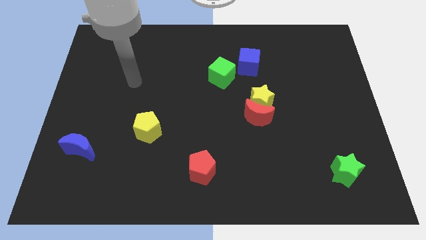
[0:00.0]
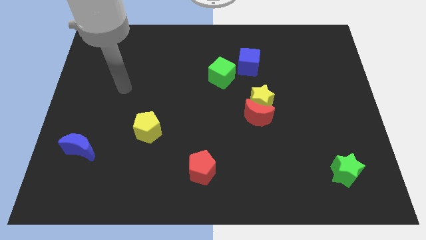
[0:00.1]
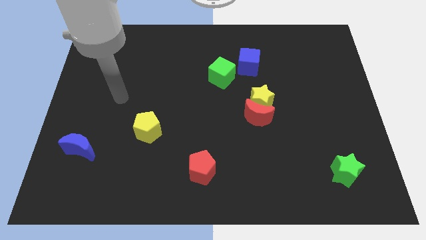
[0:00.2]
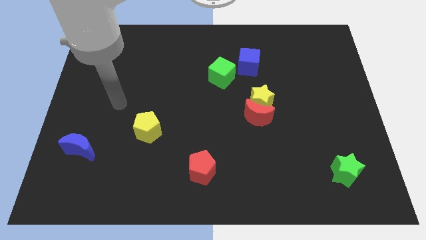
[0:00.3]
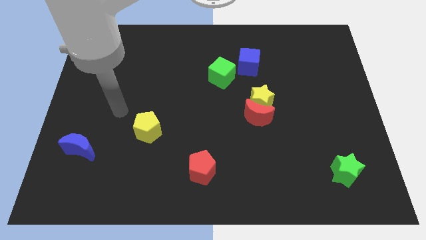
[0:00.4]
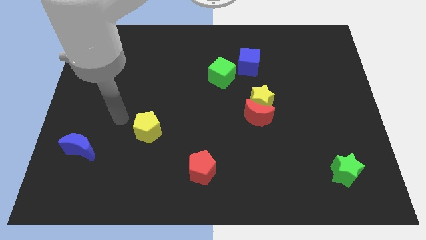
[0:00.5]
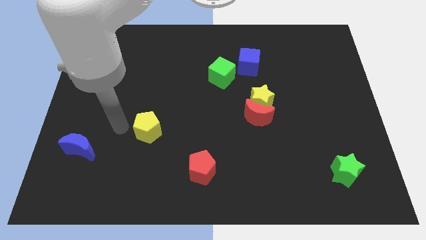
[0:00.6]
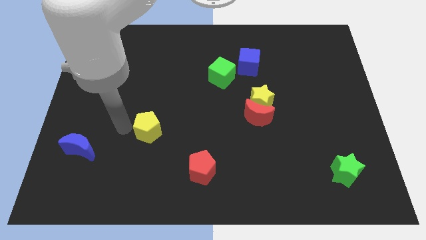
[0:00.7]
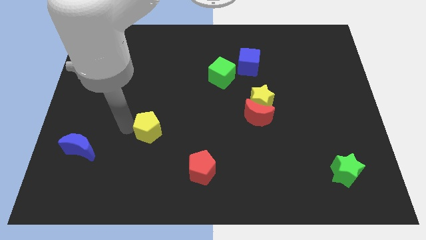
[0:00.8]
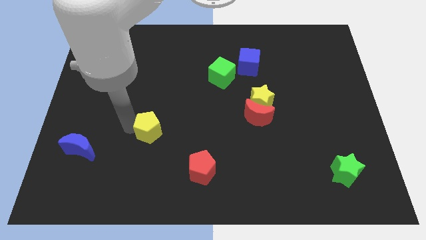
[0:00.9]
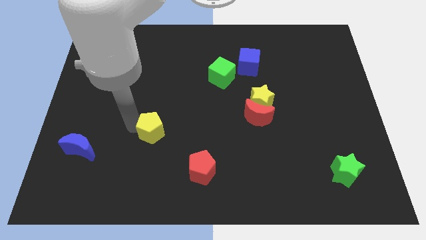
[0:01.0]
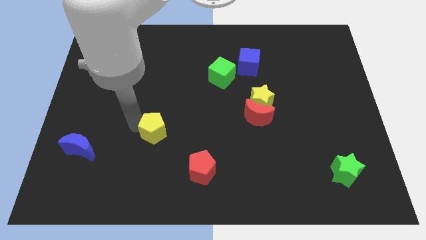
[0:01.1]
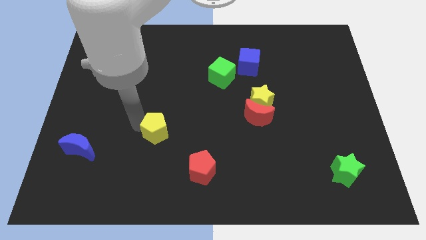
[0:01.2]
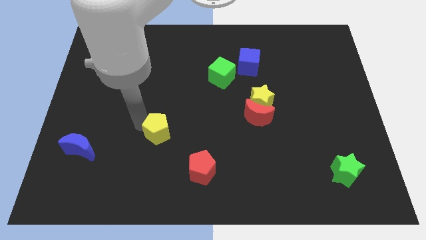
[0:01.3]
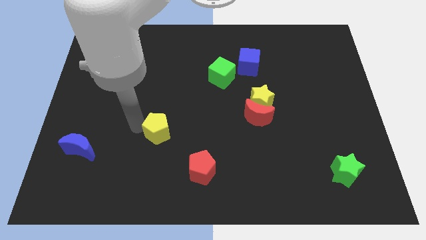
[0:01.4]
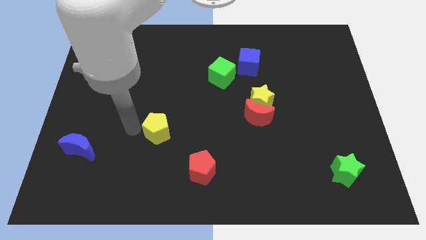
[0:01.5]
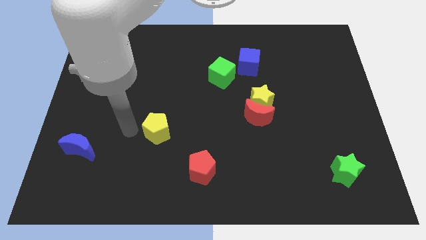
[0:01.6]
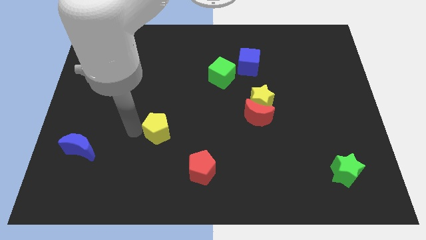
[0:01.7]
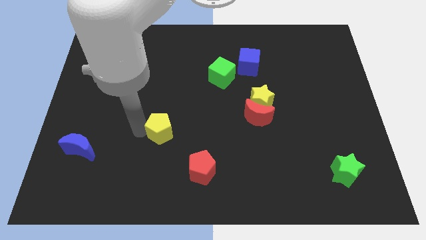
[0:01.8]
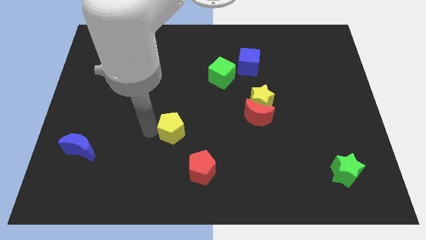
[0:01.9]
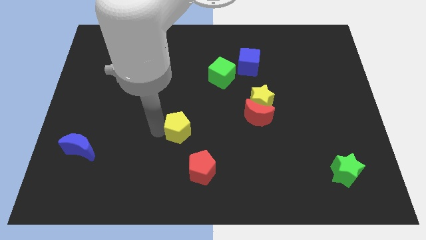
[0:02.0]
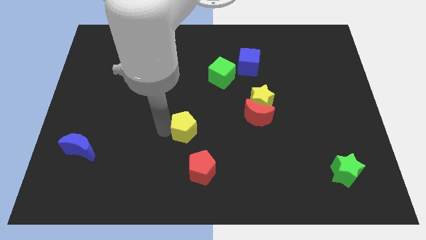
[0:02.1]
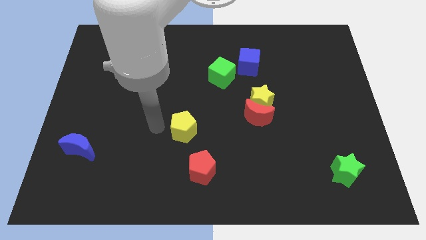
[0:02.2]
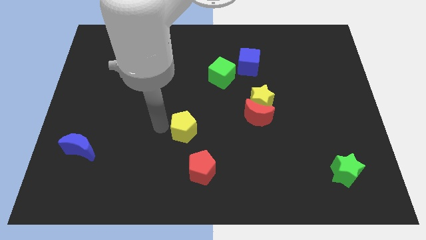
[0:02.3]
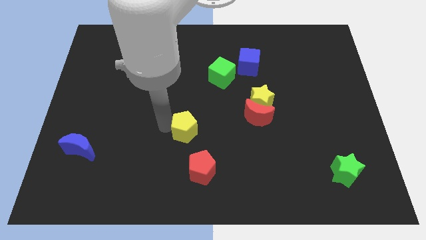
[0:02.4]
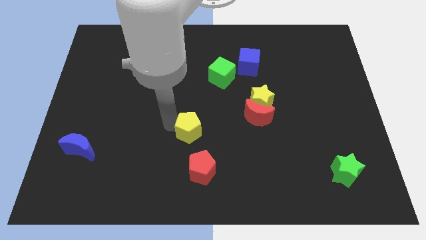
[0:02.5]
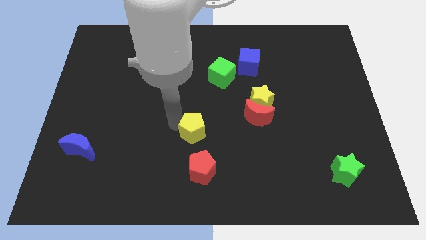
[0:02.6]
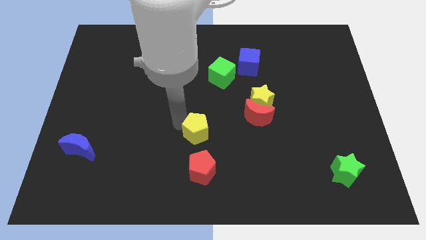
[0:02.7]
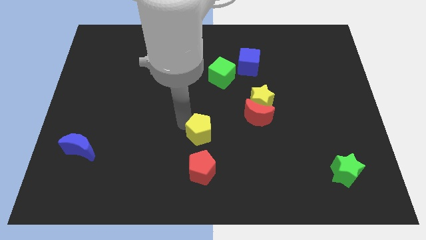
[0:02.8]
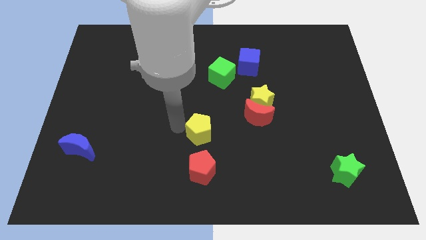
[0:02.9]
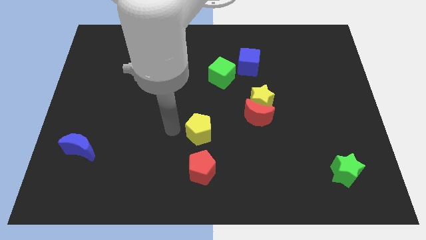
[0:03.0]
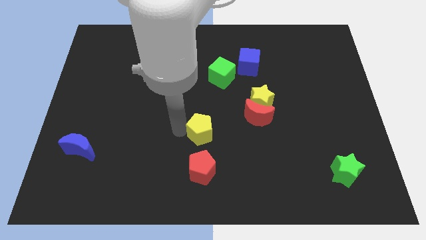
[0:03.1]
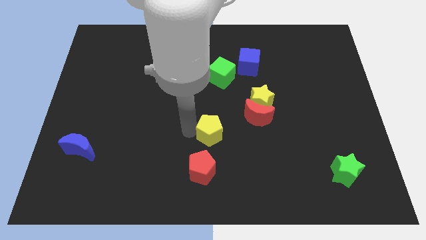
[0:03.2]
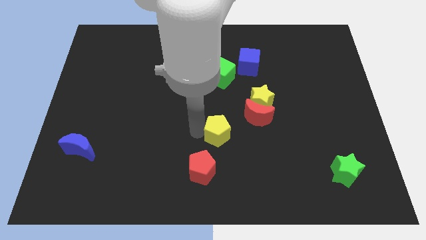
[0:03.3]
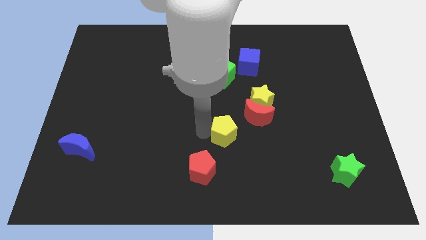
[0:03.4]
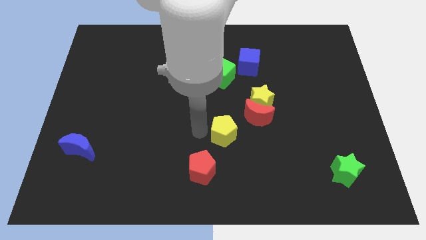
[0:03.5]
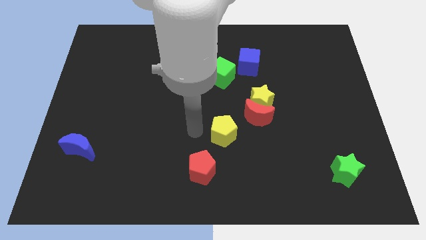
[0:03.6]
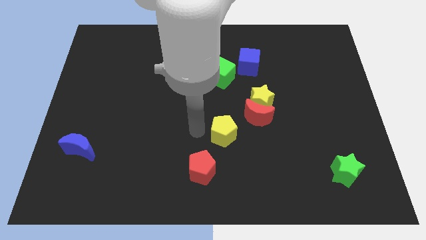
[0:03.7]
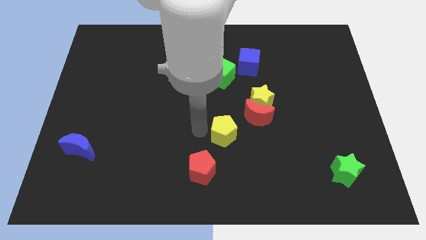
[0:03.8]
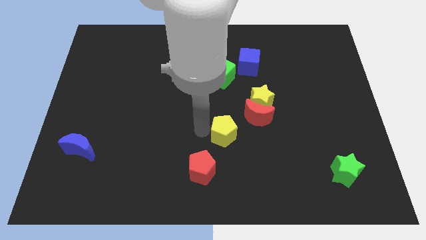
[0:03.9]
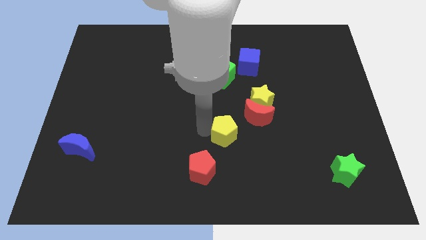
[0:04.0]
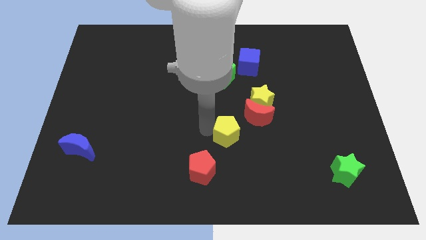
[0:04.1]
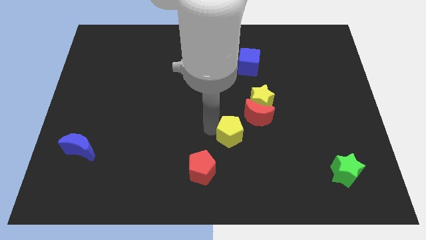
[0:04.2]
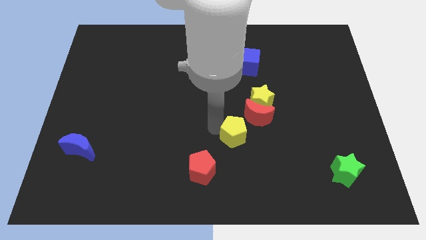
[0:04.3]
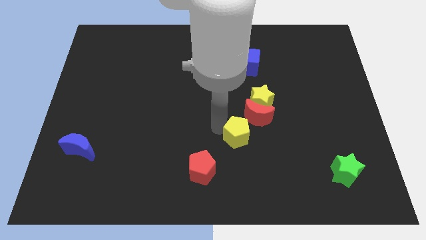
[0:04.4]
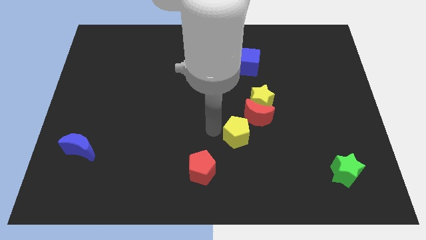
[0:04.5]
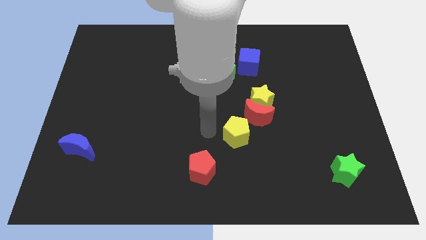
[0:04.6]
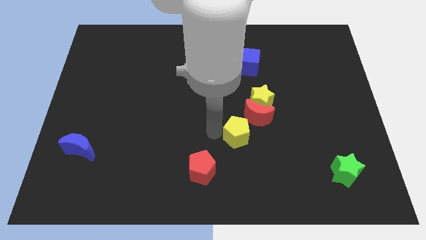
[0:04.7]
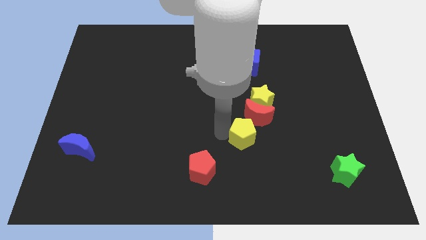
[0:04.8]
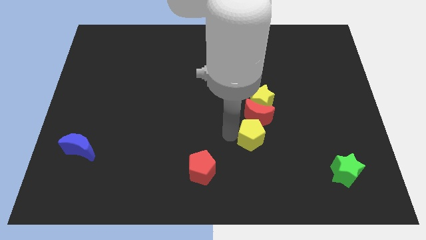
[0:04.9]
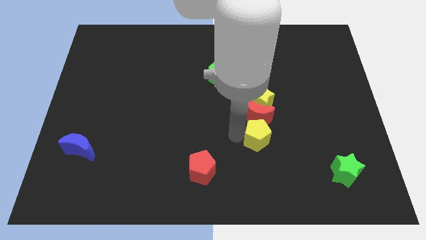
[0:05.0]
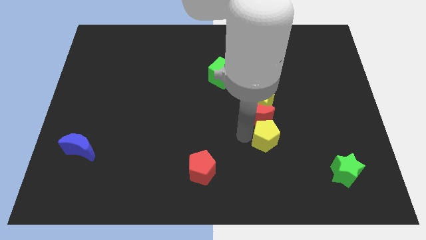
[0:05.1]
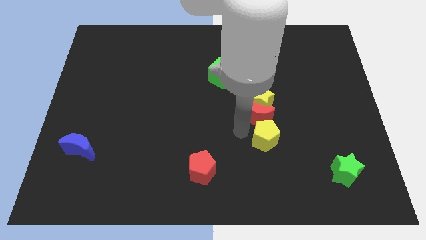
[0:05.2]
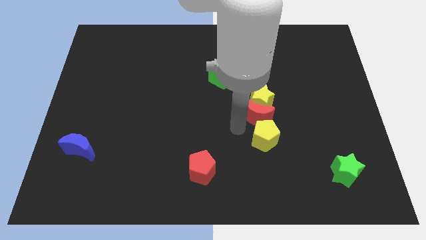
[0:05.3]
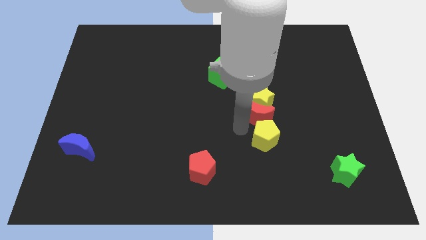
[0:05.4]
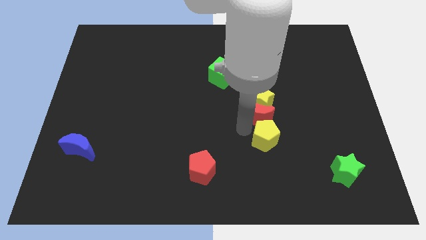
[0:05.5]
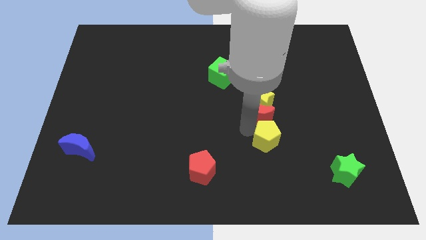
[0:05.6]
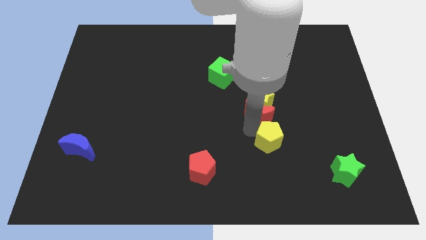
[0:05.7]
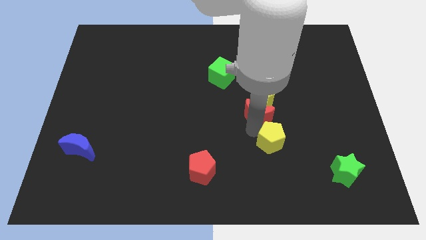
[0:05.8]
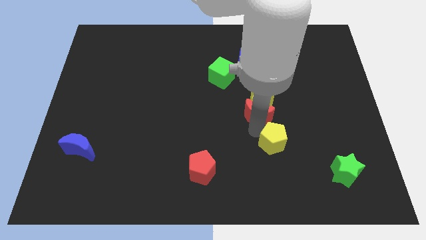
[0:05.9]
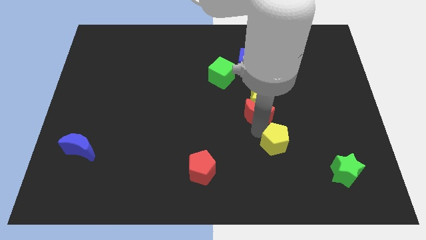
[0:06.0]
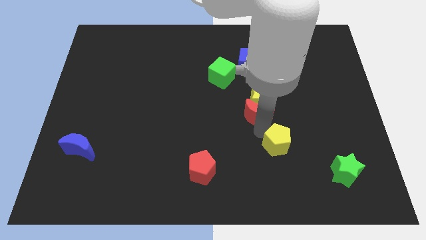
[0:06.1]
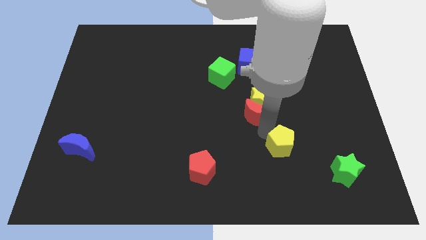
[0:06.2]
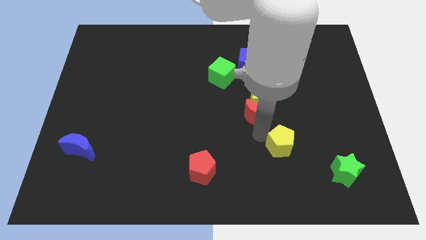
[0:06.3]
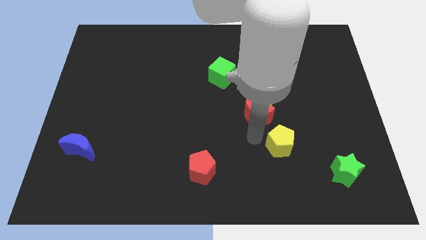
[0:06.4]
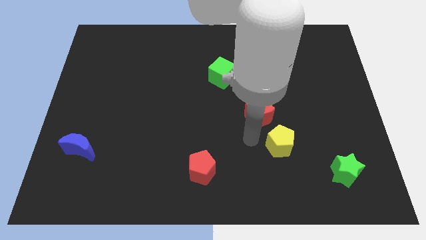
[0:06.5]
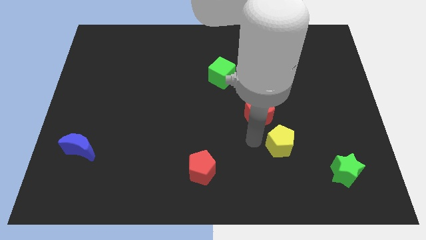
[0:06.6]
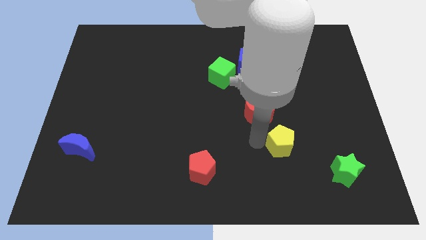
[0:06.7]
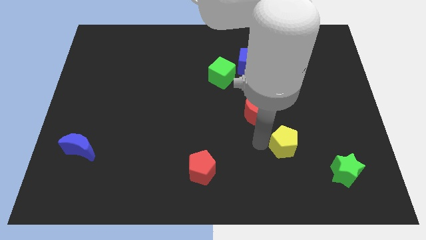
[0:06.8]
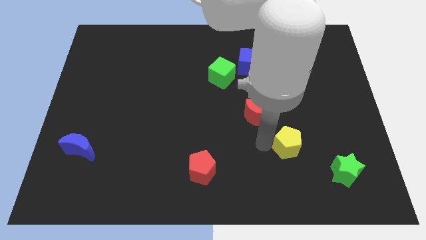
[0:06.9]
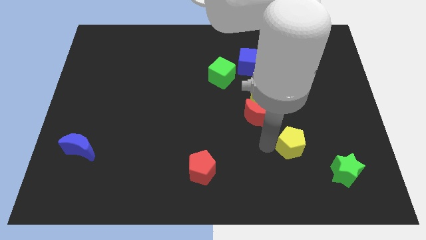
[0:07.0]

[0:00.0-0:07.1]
push the yellow pentagon to the top left side of the green star
